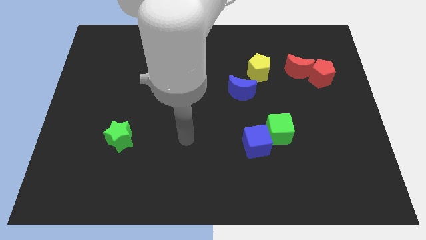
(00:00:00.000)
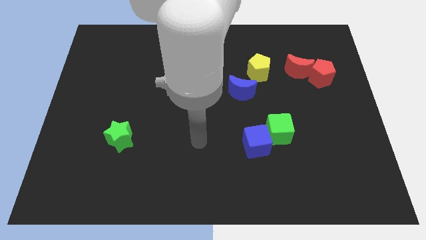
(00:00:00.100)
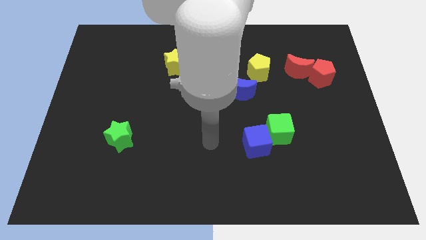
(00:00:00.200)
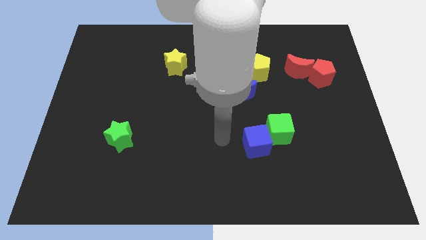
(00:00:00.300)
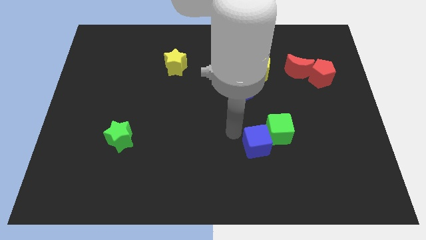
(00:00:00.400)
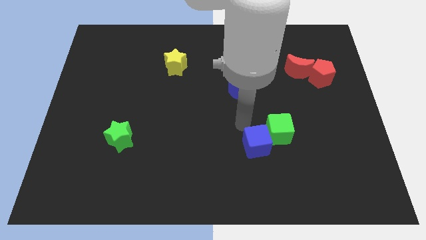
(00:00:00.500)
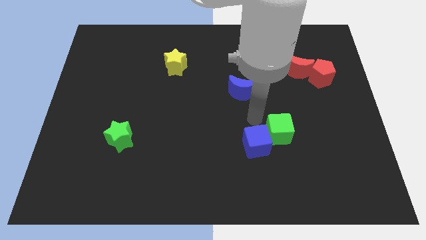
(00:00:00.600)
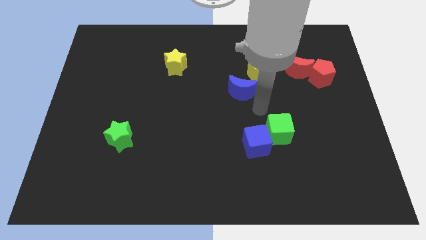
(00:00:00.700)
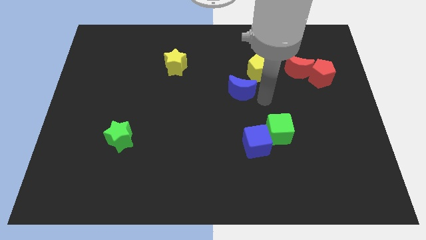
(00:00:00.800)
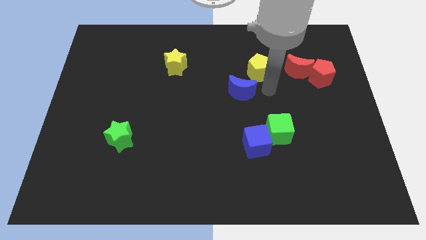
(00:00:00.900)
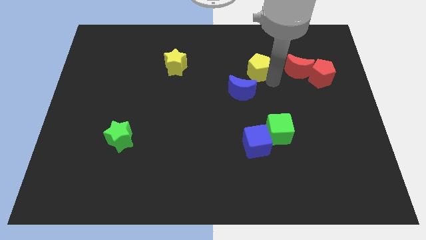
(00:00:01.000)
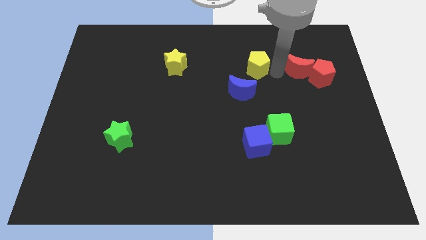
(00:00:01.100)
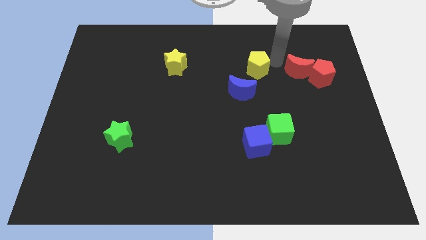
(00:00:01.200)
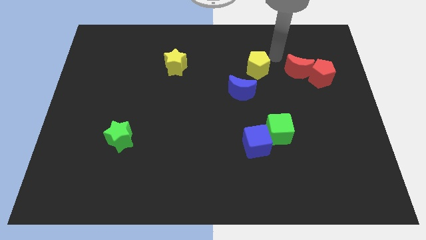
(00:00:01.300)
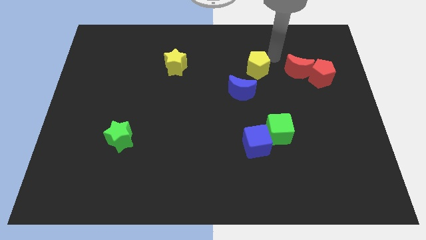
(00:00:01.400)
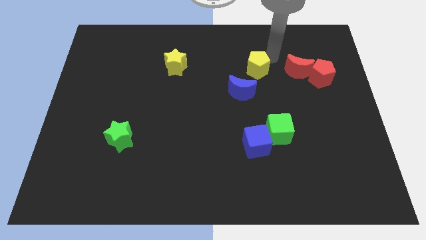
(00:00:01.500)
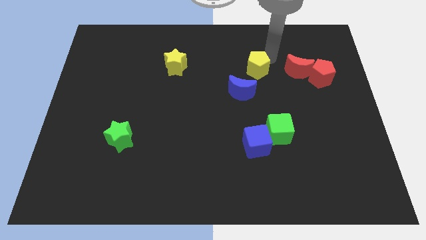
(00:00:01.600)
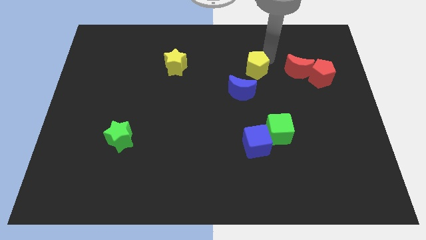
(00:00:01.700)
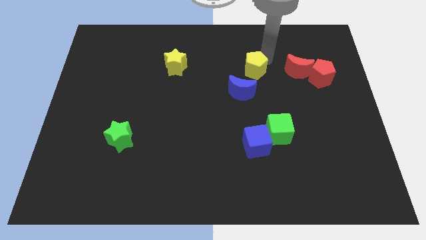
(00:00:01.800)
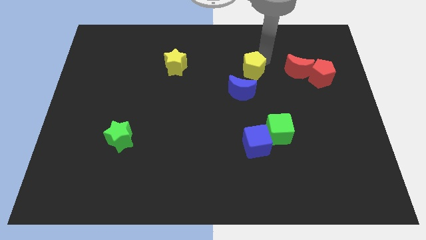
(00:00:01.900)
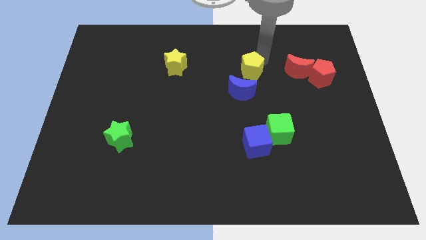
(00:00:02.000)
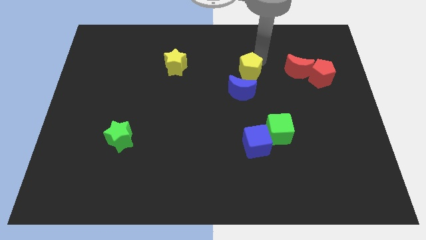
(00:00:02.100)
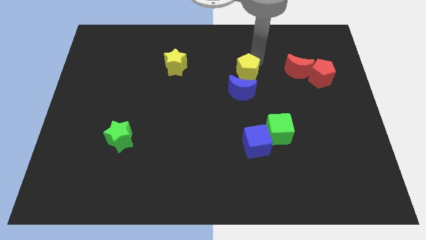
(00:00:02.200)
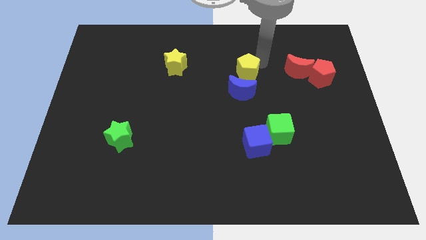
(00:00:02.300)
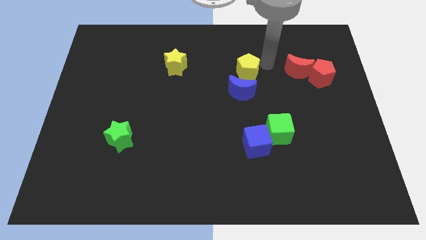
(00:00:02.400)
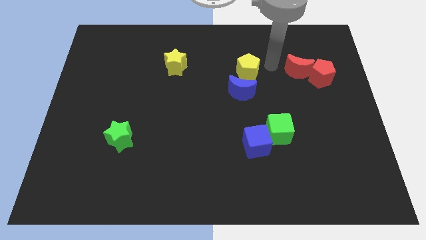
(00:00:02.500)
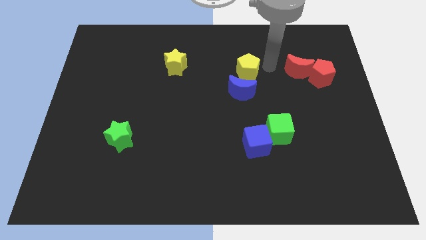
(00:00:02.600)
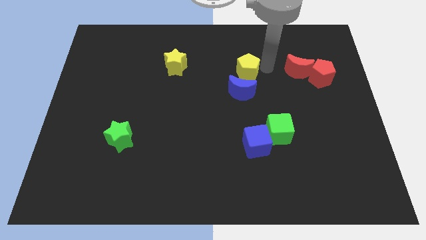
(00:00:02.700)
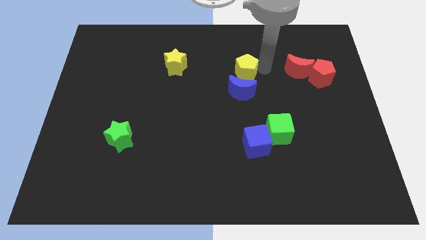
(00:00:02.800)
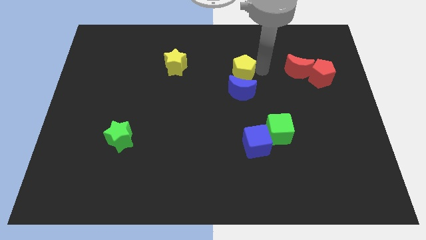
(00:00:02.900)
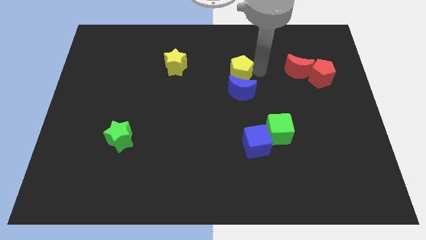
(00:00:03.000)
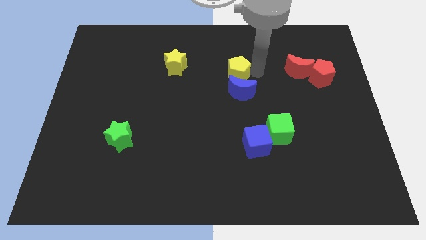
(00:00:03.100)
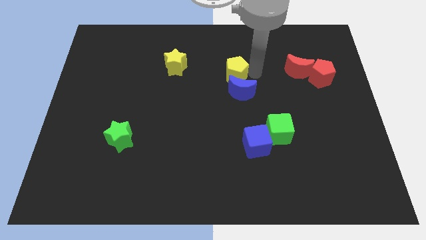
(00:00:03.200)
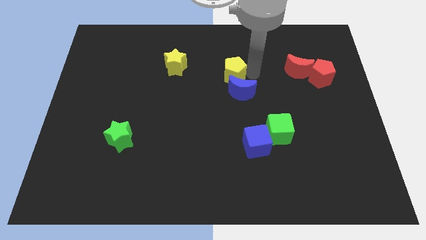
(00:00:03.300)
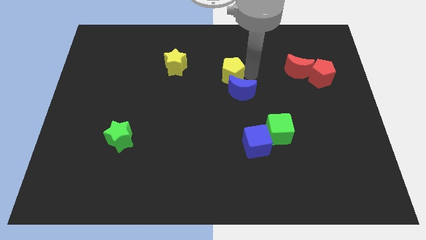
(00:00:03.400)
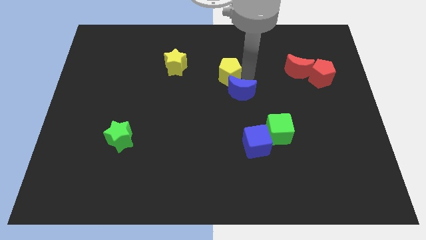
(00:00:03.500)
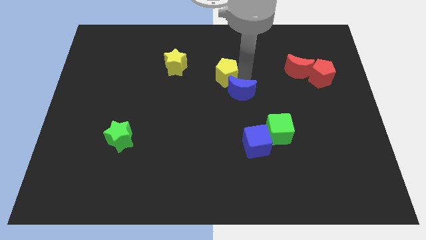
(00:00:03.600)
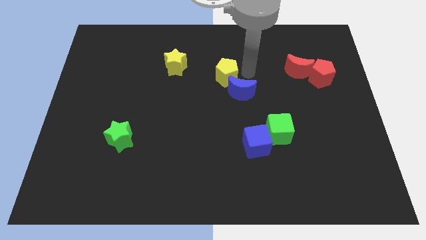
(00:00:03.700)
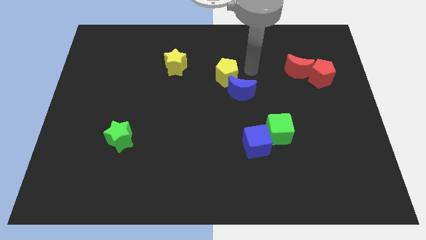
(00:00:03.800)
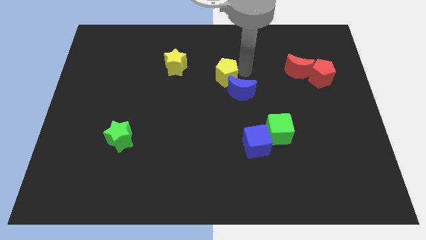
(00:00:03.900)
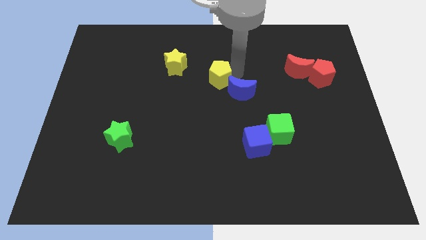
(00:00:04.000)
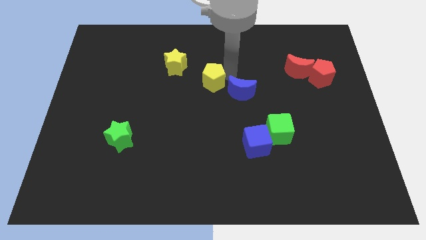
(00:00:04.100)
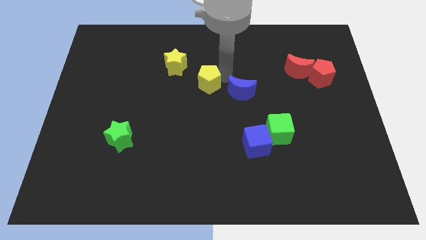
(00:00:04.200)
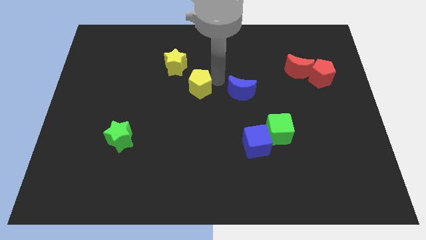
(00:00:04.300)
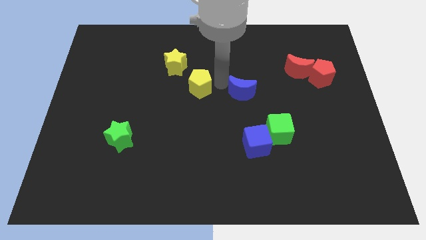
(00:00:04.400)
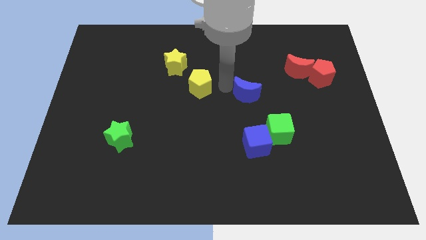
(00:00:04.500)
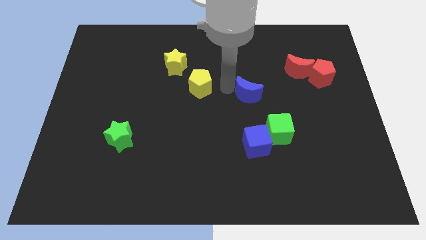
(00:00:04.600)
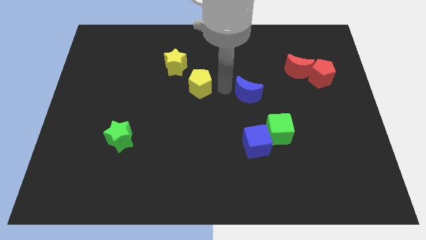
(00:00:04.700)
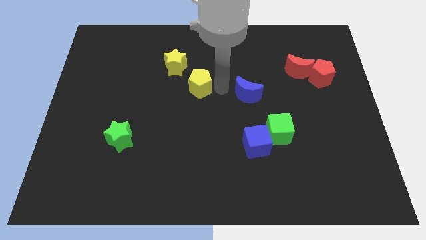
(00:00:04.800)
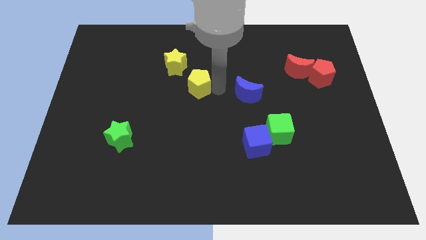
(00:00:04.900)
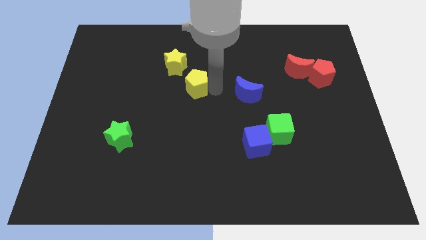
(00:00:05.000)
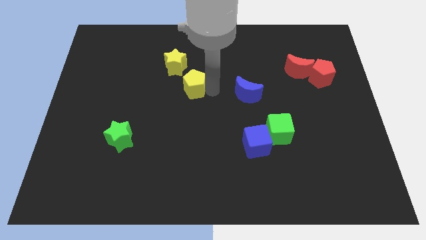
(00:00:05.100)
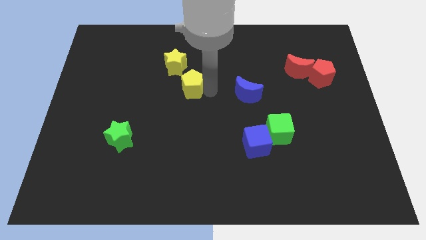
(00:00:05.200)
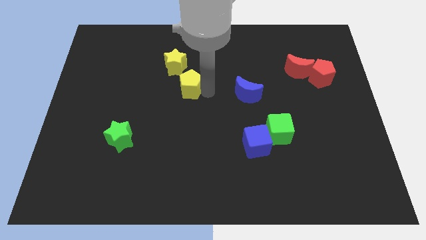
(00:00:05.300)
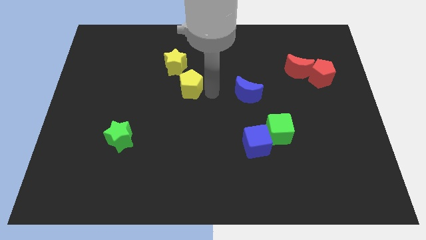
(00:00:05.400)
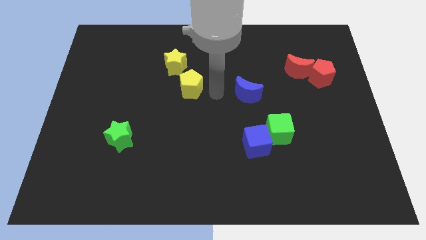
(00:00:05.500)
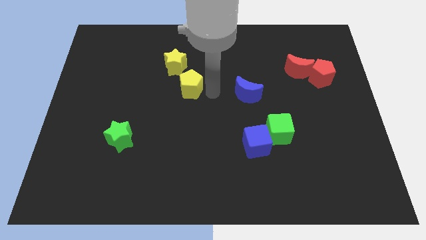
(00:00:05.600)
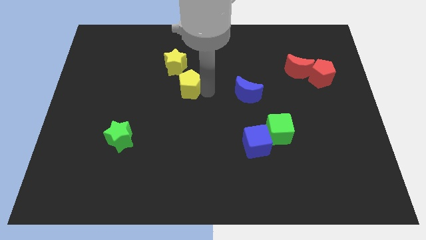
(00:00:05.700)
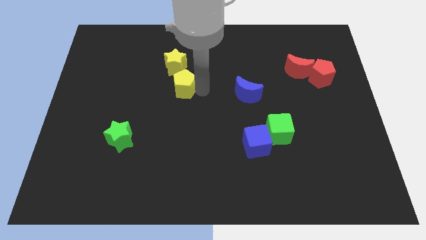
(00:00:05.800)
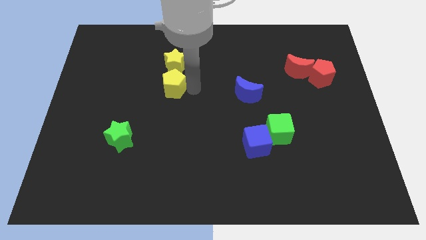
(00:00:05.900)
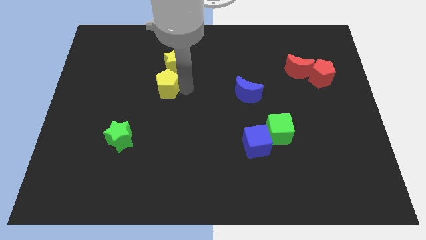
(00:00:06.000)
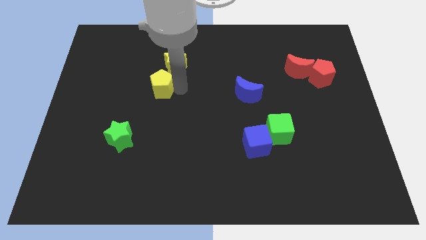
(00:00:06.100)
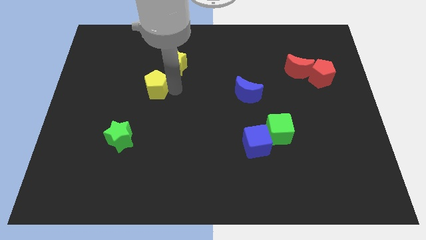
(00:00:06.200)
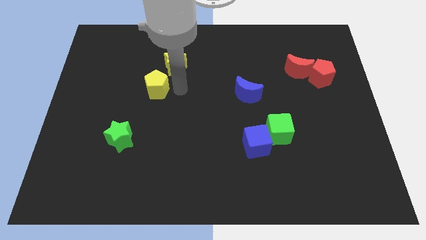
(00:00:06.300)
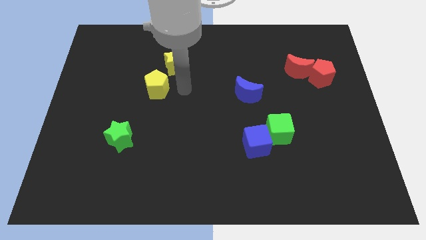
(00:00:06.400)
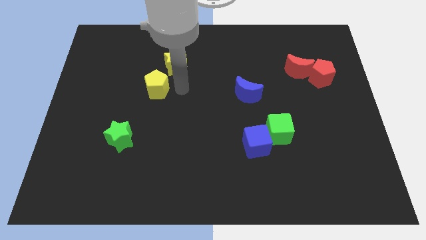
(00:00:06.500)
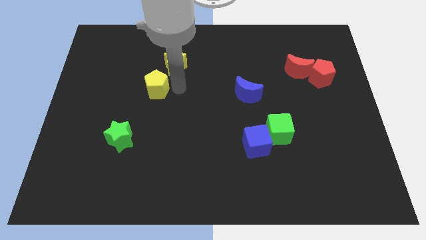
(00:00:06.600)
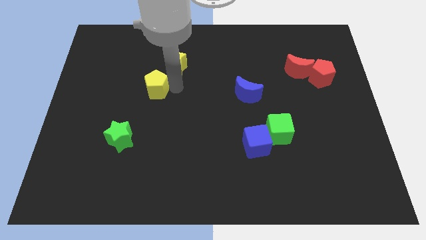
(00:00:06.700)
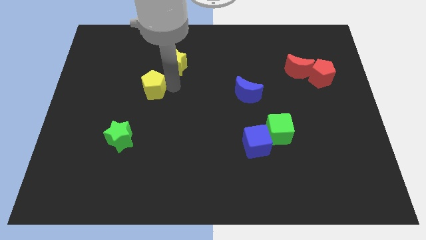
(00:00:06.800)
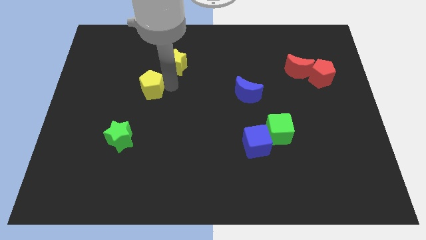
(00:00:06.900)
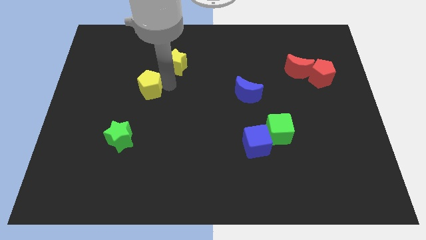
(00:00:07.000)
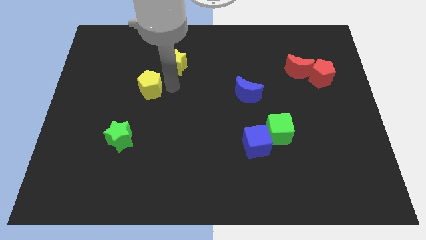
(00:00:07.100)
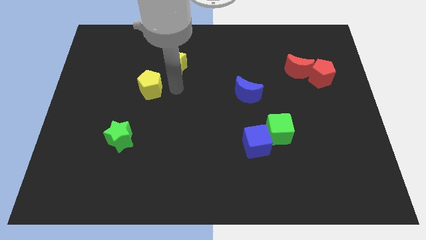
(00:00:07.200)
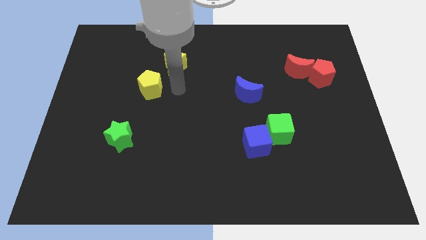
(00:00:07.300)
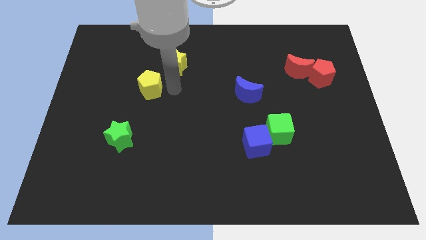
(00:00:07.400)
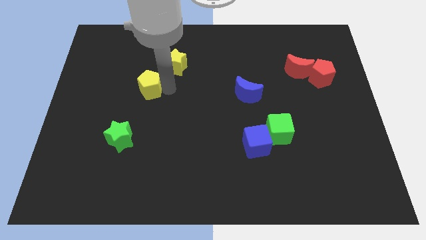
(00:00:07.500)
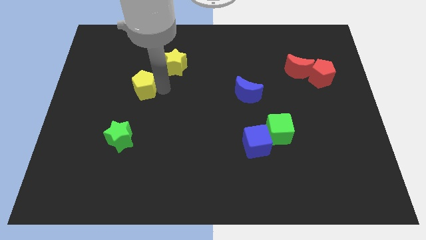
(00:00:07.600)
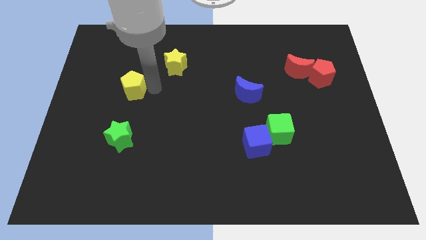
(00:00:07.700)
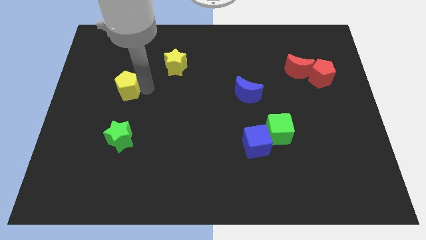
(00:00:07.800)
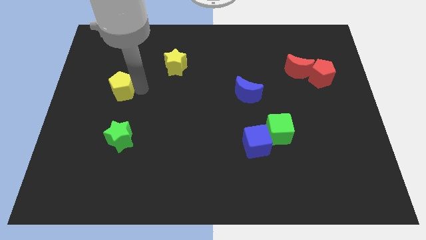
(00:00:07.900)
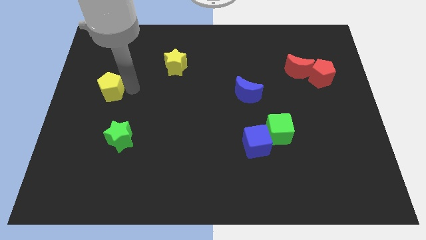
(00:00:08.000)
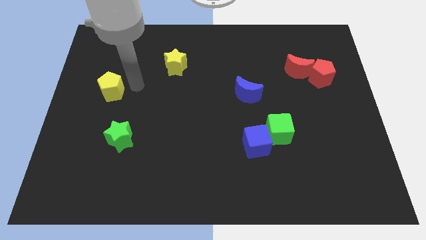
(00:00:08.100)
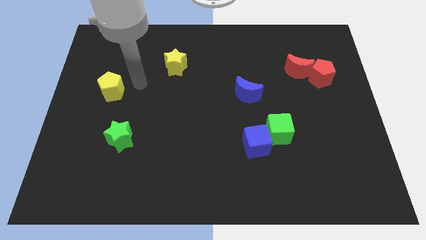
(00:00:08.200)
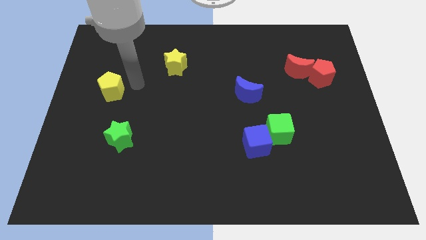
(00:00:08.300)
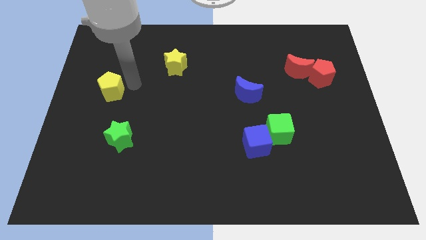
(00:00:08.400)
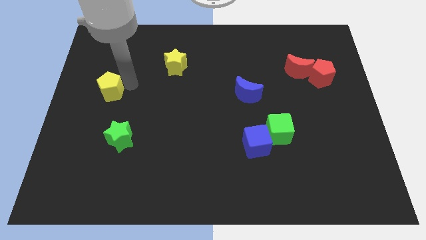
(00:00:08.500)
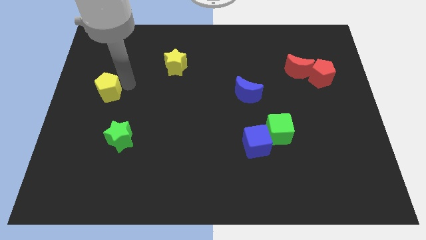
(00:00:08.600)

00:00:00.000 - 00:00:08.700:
push the yellow pentagon to the left side
